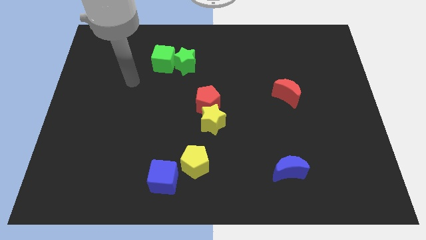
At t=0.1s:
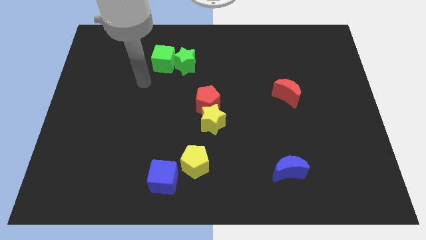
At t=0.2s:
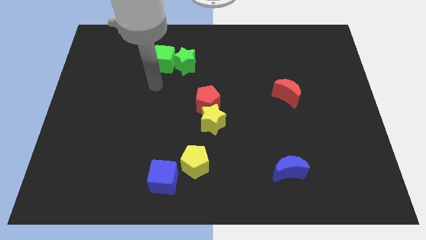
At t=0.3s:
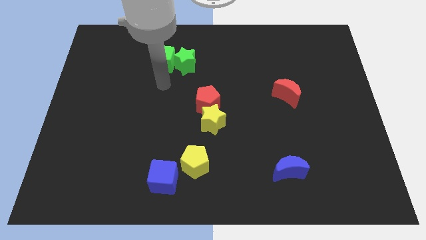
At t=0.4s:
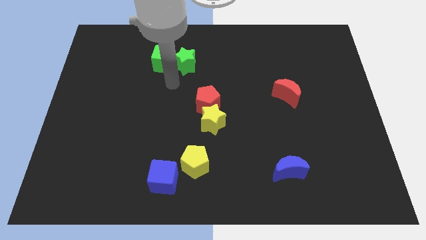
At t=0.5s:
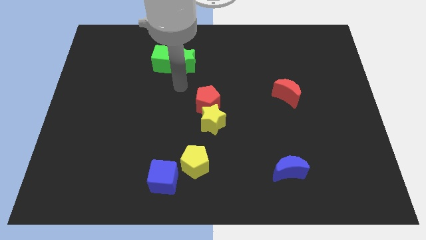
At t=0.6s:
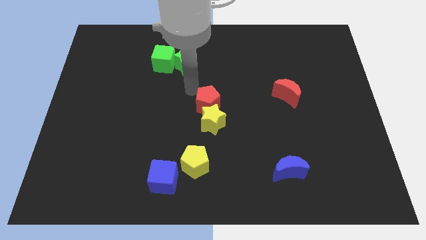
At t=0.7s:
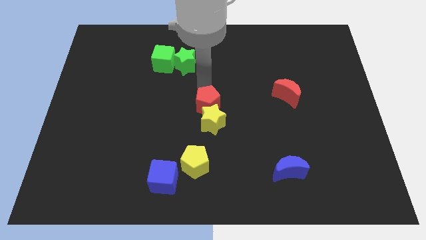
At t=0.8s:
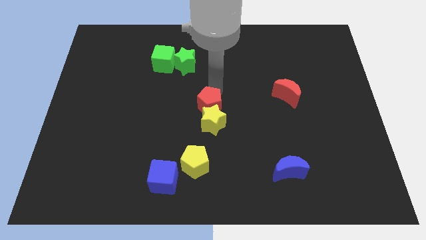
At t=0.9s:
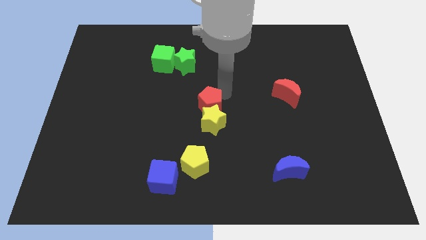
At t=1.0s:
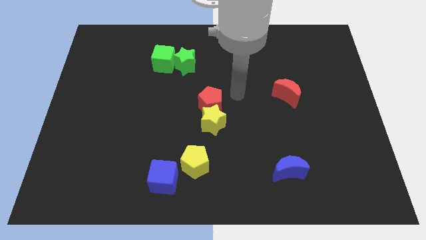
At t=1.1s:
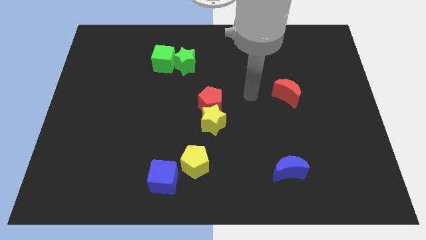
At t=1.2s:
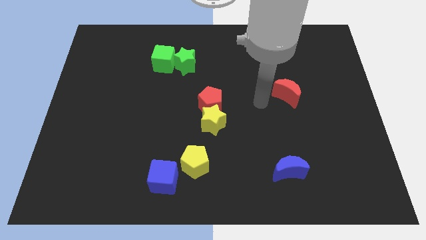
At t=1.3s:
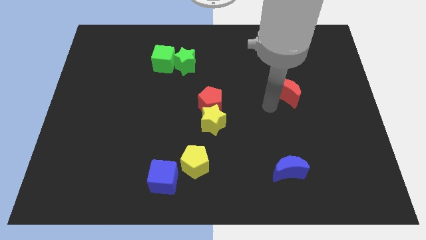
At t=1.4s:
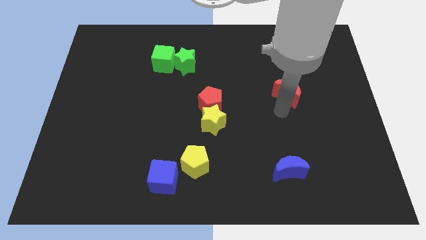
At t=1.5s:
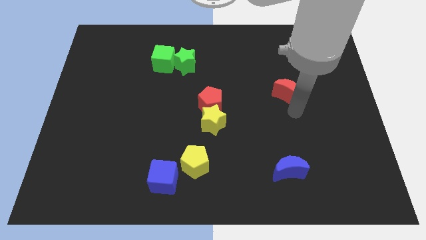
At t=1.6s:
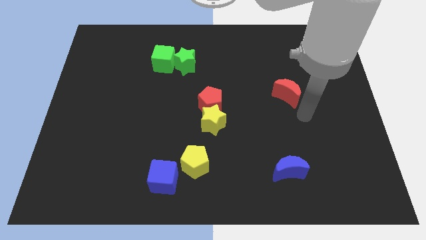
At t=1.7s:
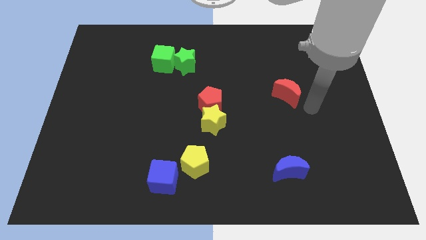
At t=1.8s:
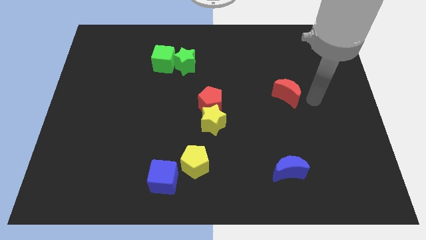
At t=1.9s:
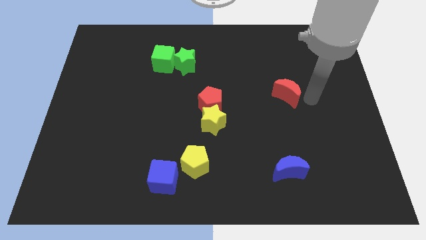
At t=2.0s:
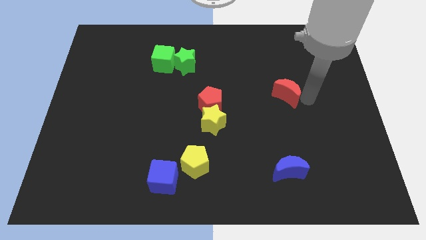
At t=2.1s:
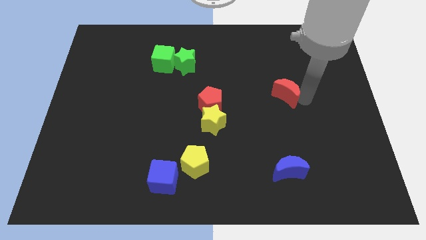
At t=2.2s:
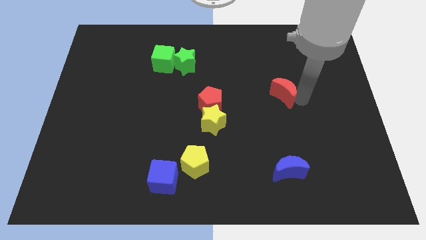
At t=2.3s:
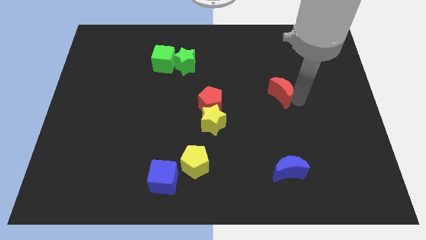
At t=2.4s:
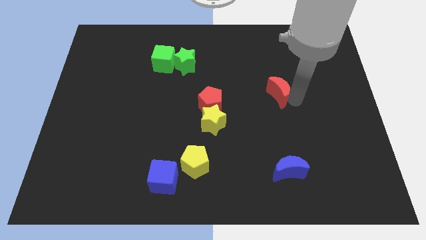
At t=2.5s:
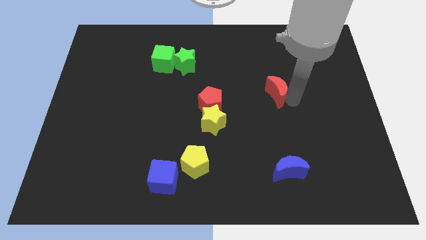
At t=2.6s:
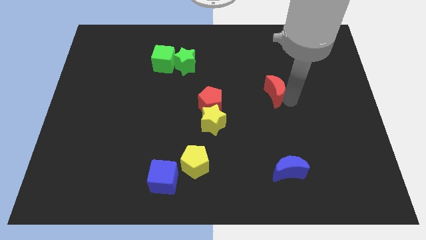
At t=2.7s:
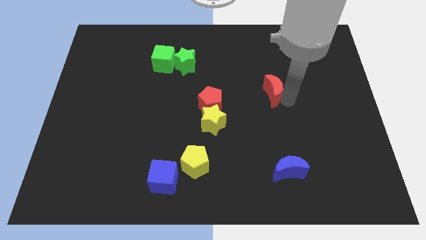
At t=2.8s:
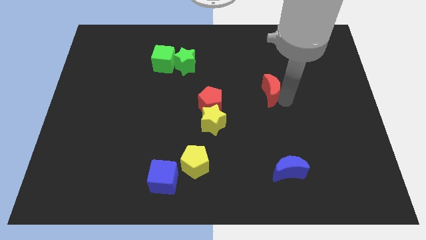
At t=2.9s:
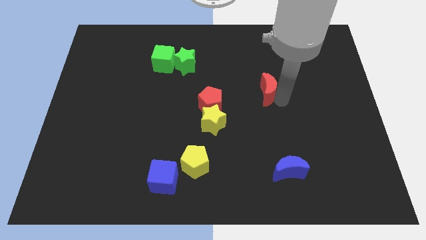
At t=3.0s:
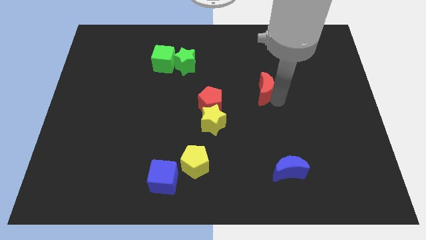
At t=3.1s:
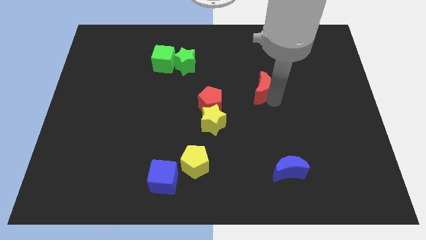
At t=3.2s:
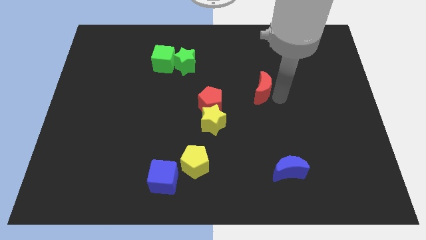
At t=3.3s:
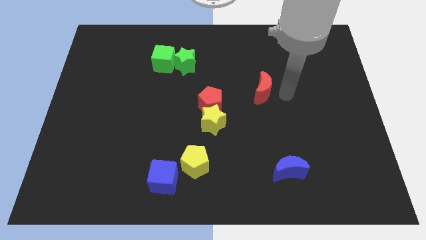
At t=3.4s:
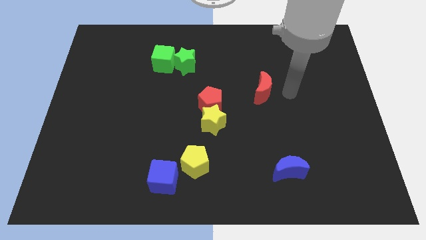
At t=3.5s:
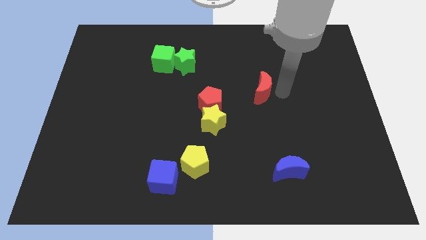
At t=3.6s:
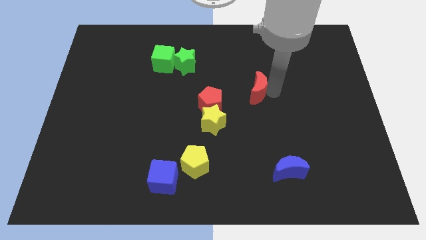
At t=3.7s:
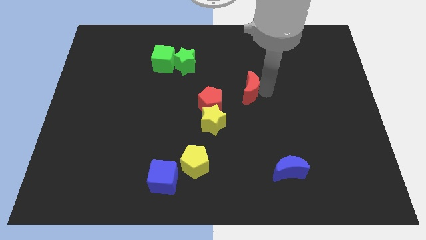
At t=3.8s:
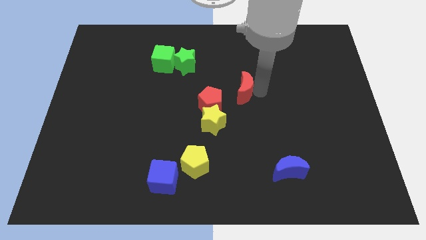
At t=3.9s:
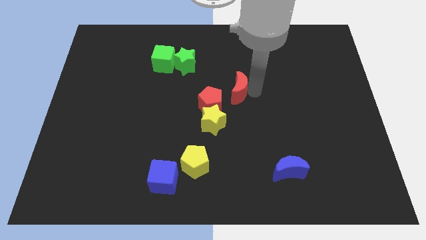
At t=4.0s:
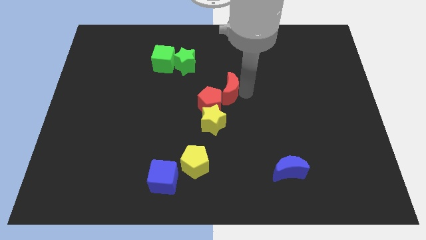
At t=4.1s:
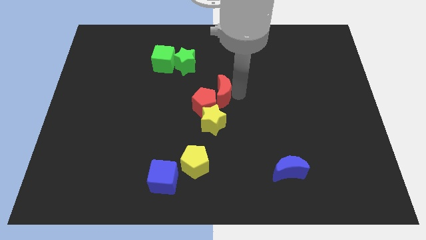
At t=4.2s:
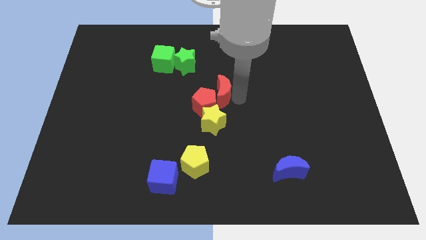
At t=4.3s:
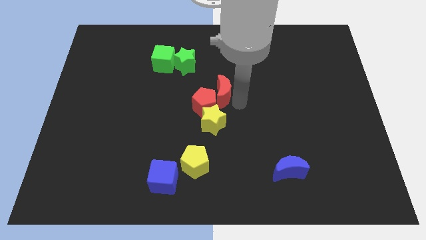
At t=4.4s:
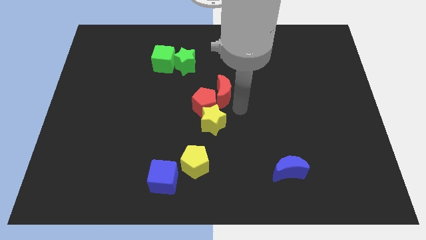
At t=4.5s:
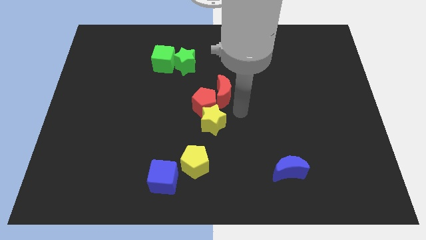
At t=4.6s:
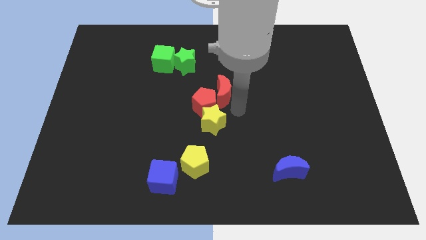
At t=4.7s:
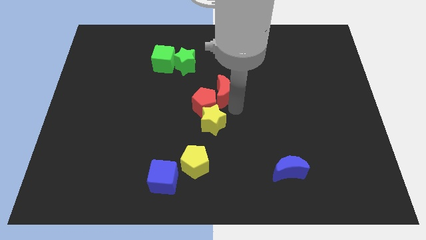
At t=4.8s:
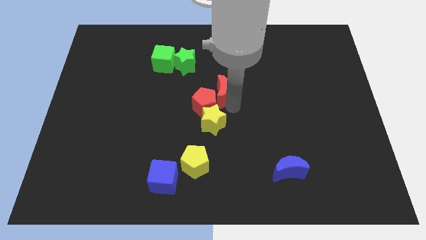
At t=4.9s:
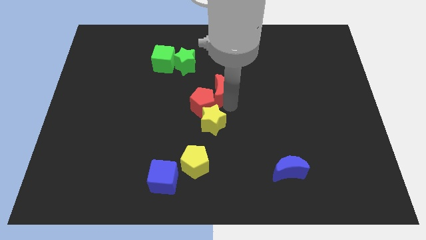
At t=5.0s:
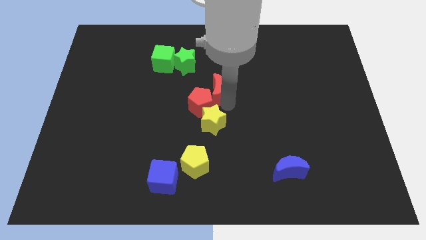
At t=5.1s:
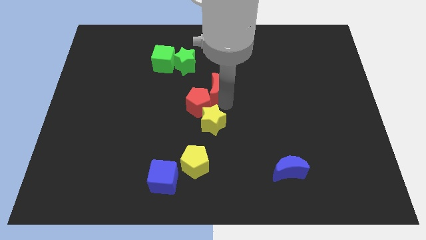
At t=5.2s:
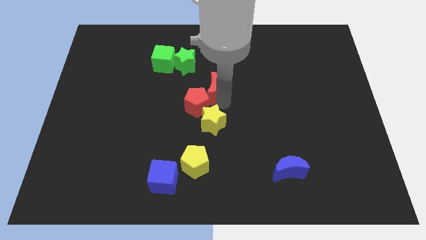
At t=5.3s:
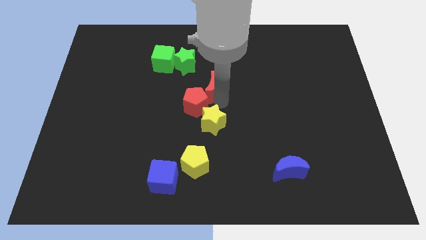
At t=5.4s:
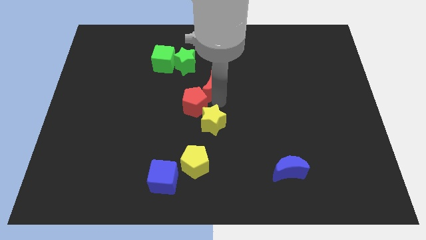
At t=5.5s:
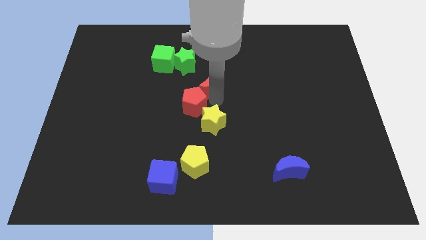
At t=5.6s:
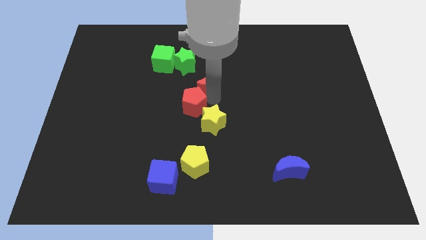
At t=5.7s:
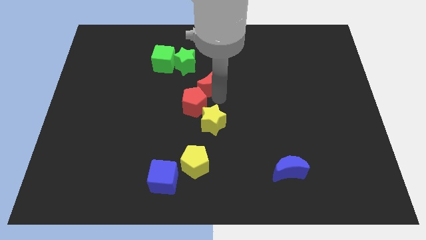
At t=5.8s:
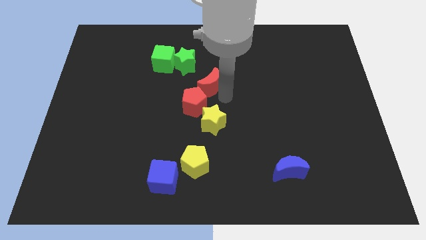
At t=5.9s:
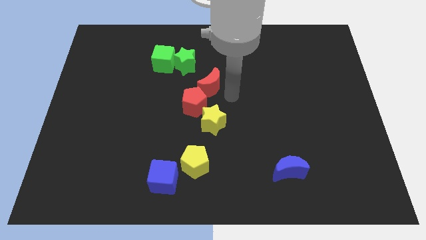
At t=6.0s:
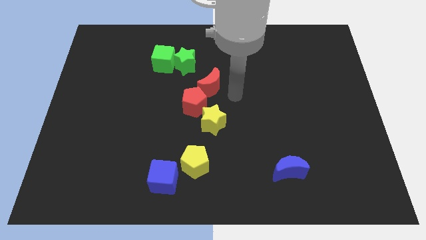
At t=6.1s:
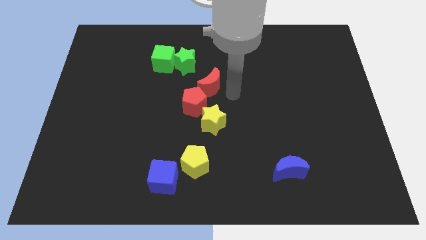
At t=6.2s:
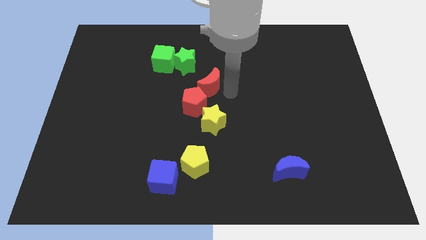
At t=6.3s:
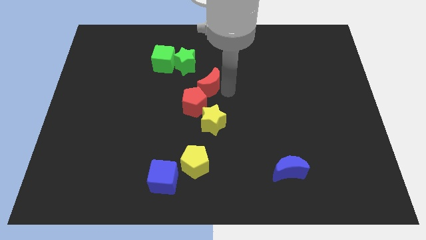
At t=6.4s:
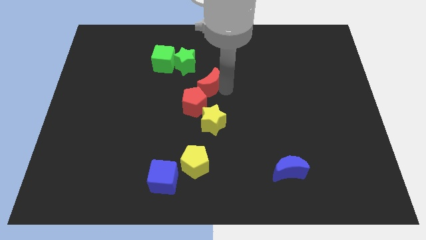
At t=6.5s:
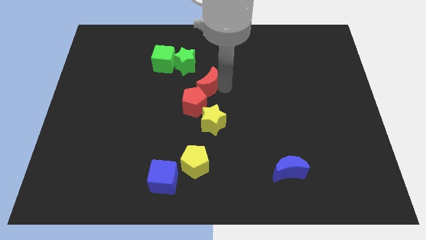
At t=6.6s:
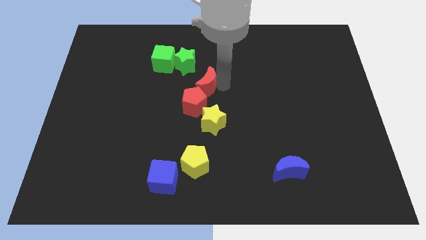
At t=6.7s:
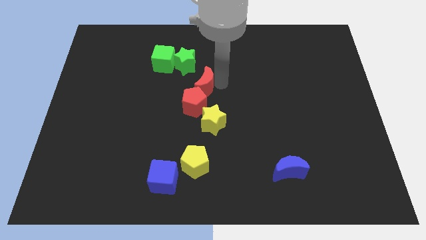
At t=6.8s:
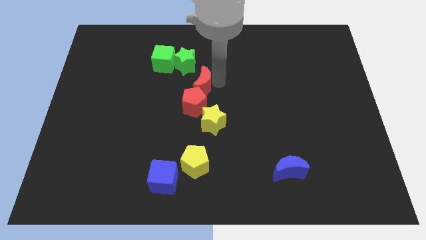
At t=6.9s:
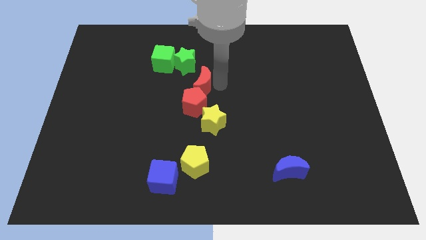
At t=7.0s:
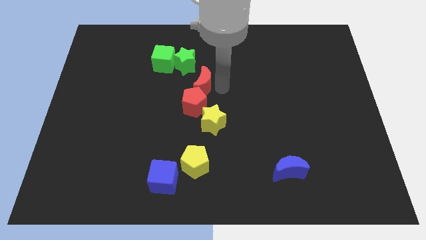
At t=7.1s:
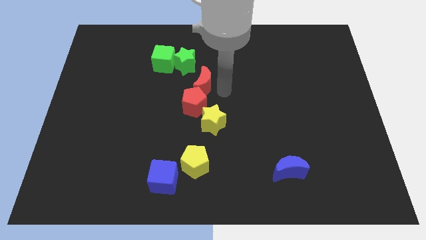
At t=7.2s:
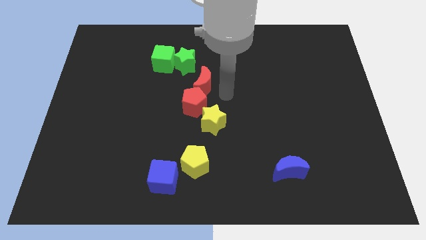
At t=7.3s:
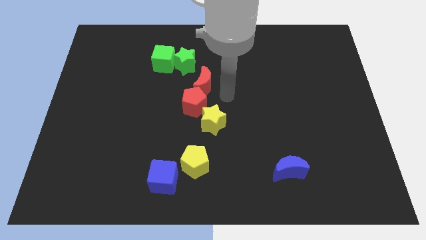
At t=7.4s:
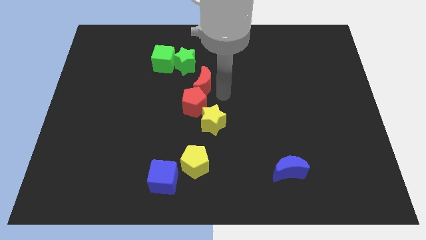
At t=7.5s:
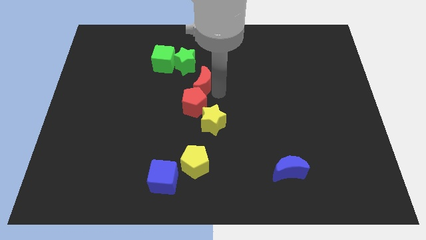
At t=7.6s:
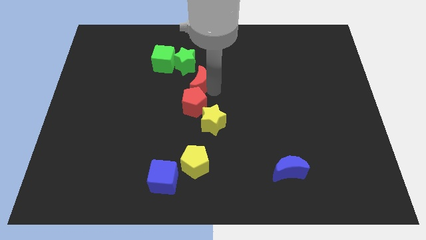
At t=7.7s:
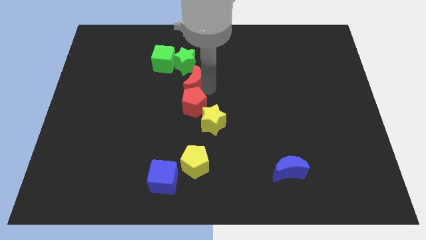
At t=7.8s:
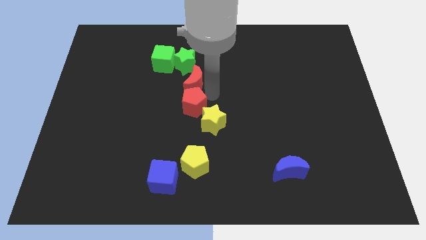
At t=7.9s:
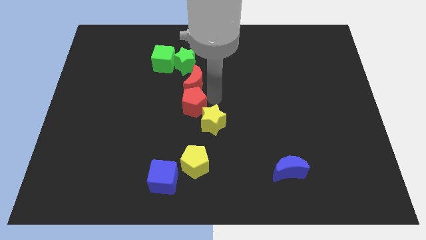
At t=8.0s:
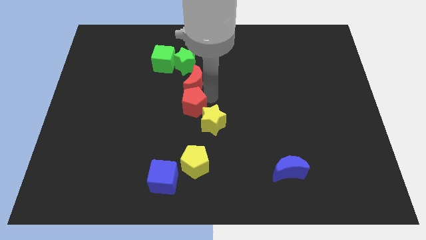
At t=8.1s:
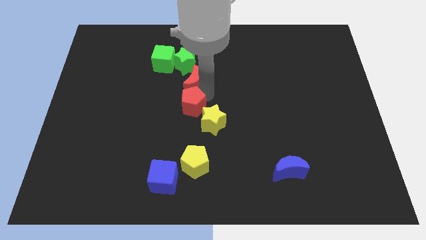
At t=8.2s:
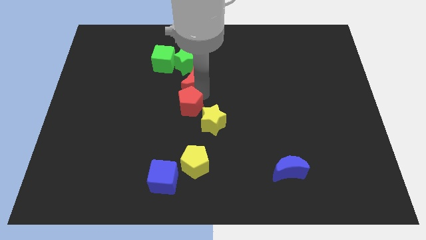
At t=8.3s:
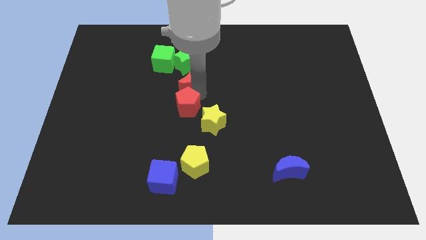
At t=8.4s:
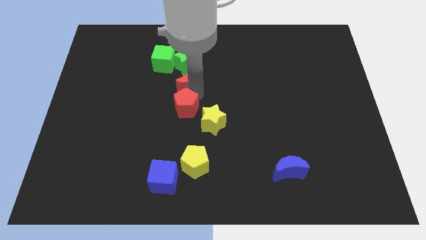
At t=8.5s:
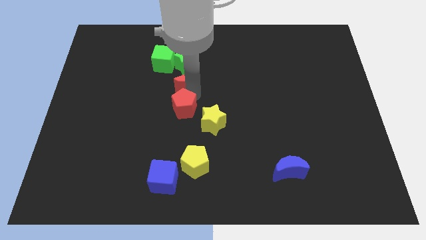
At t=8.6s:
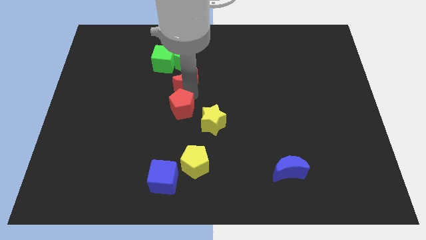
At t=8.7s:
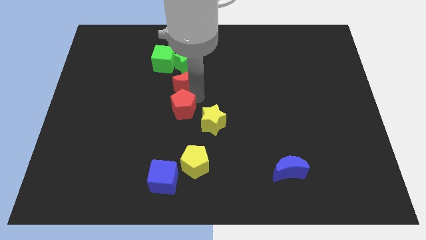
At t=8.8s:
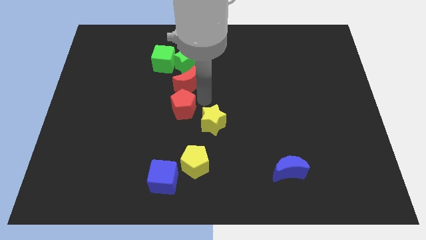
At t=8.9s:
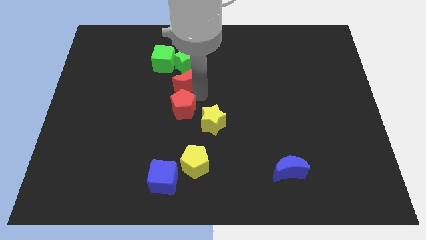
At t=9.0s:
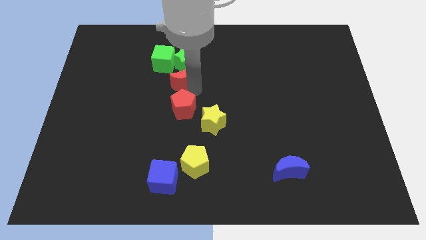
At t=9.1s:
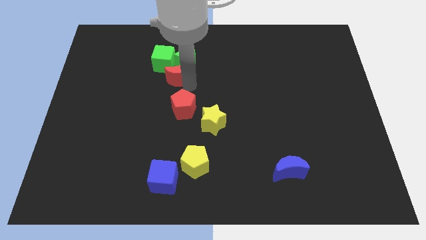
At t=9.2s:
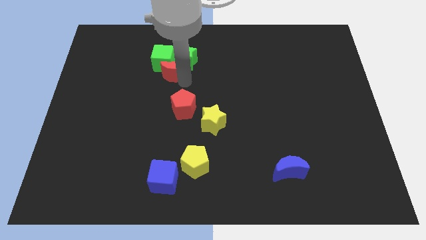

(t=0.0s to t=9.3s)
push the red moon to the green cube
